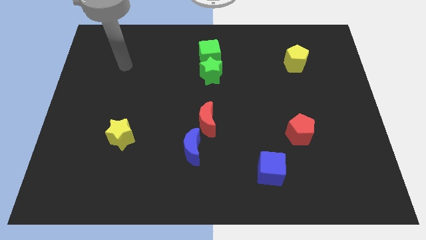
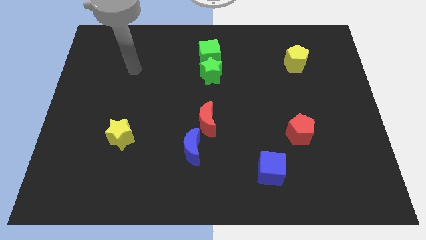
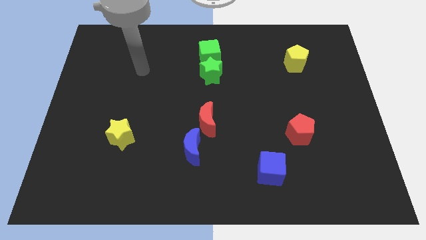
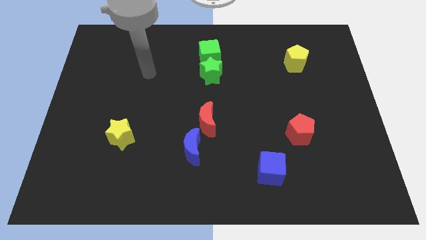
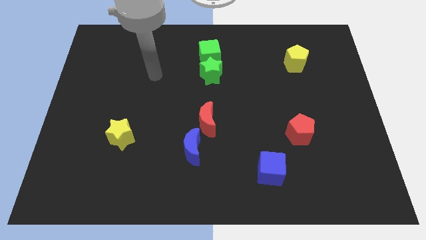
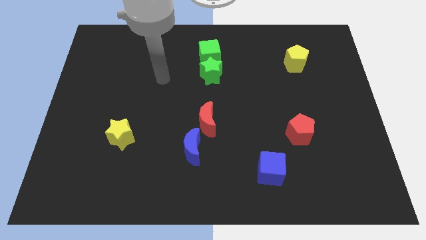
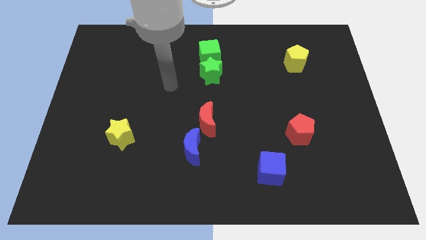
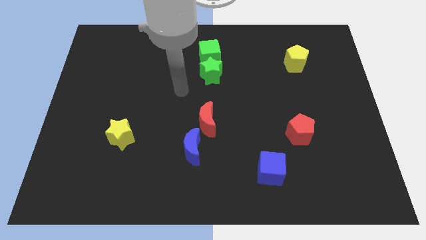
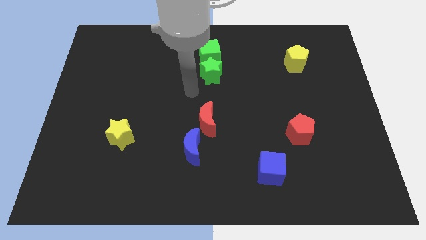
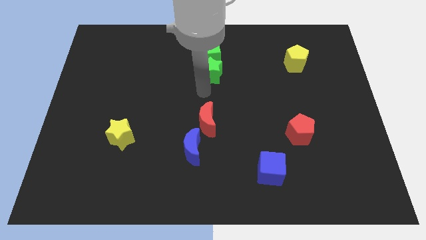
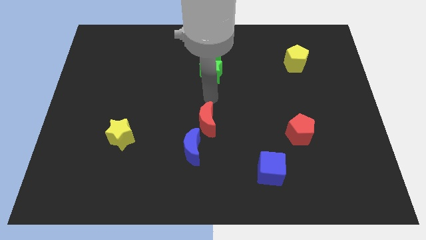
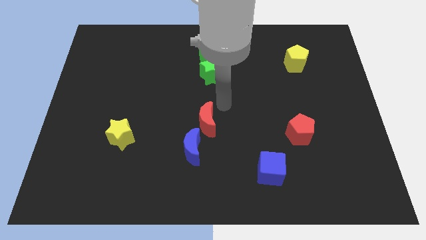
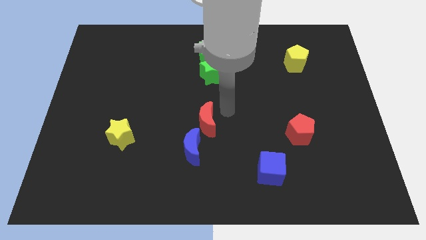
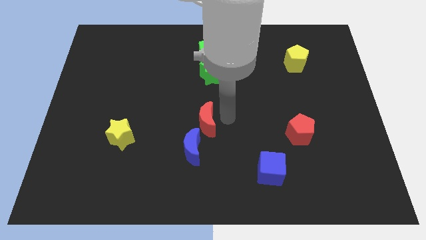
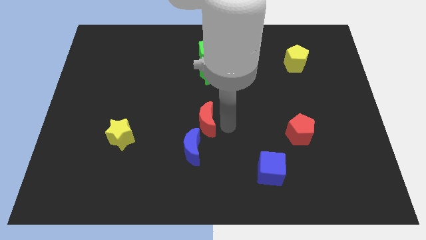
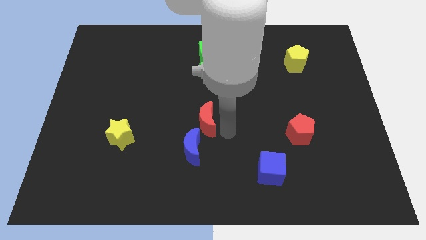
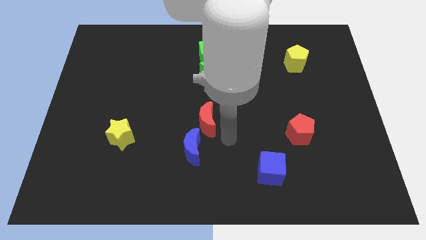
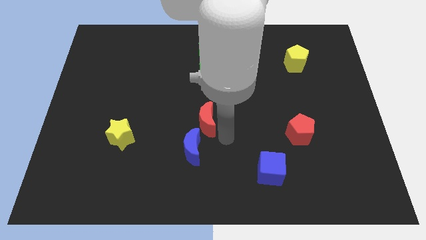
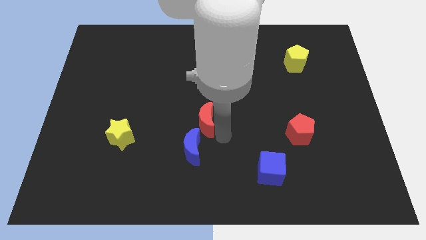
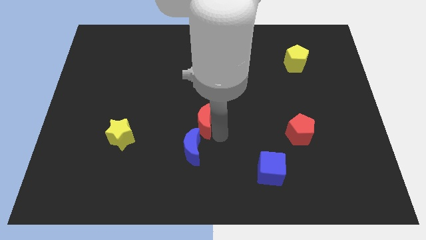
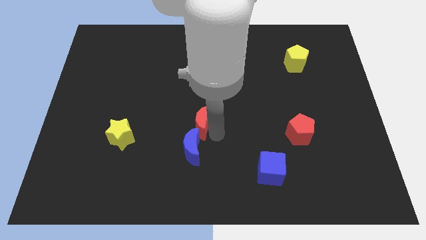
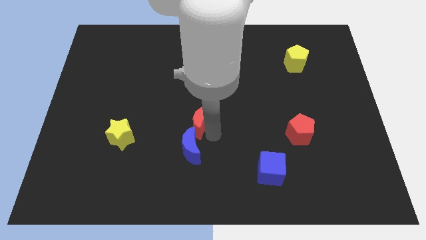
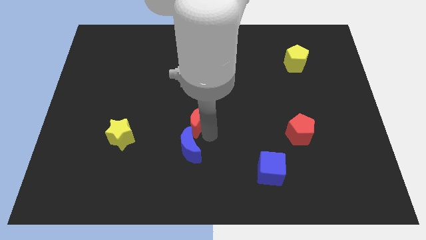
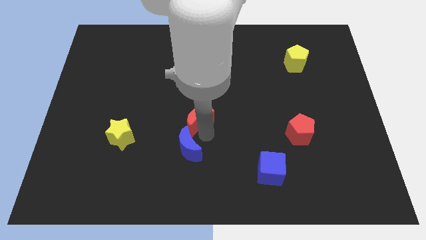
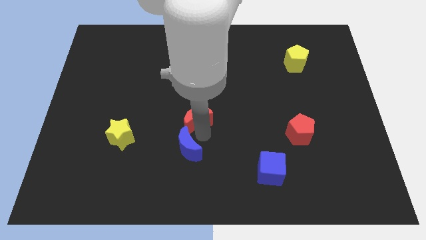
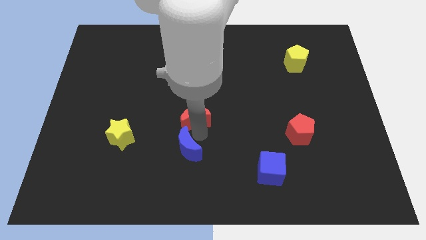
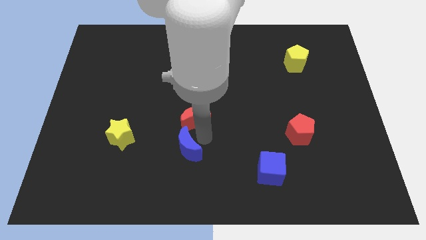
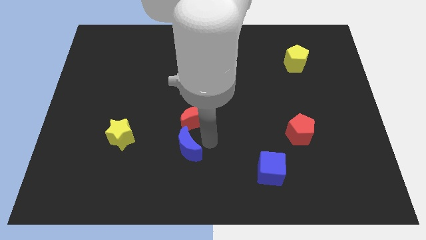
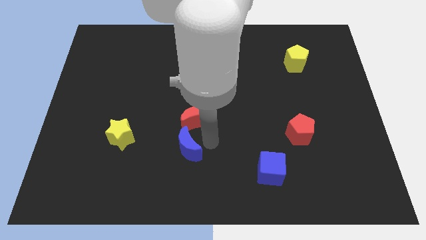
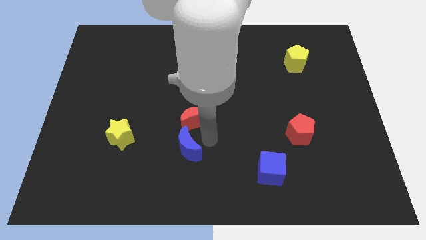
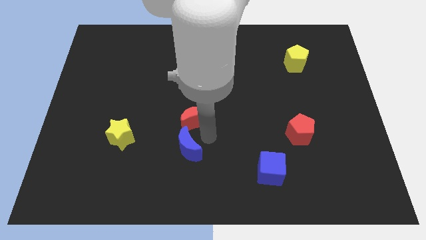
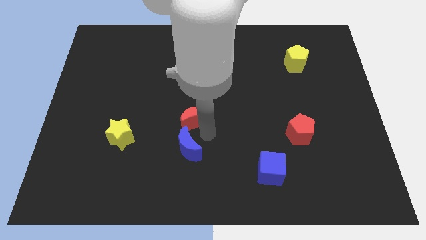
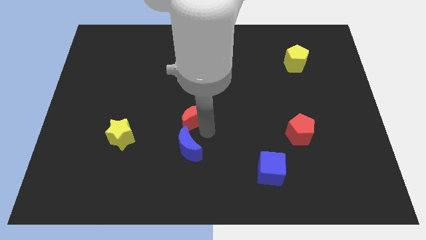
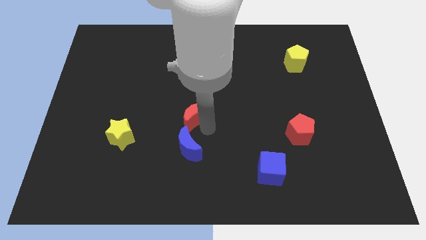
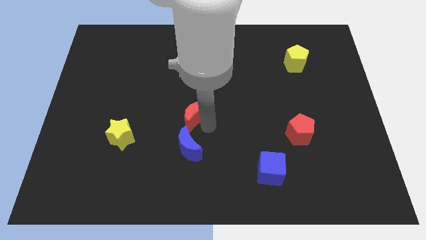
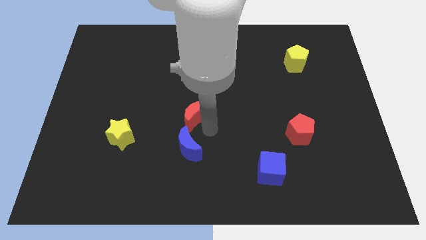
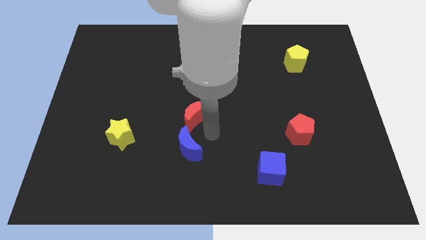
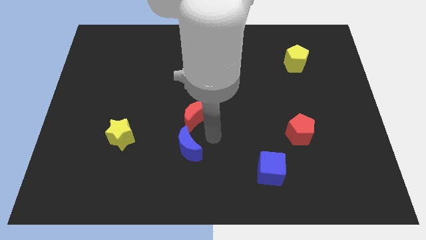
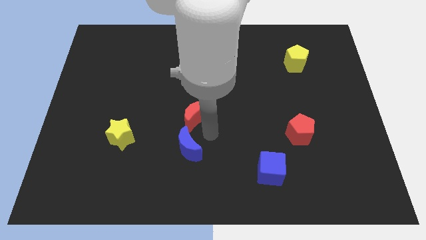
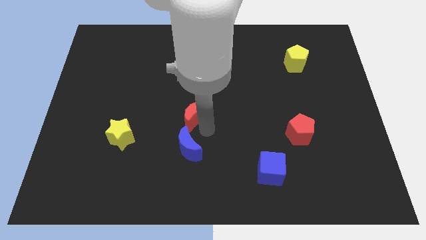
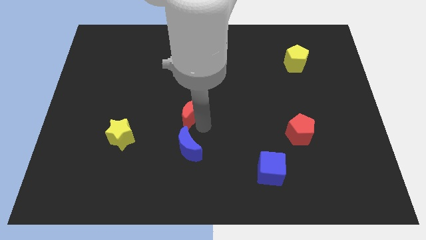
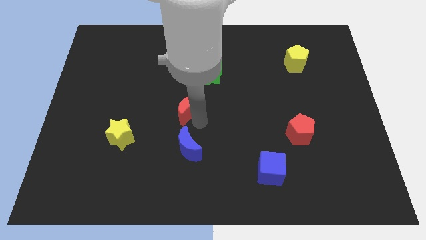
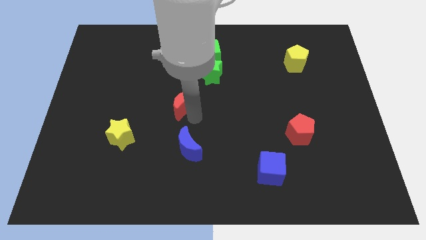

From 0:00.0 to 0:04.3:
move the red moon somewhat upwards and to the left

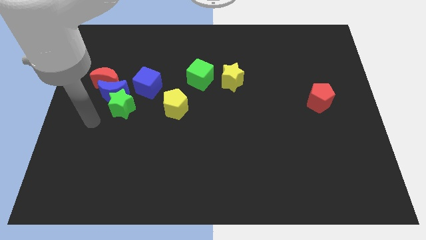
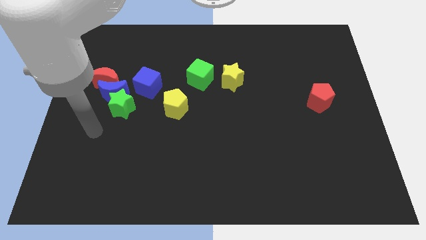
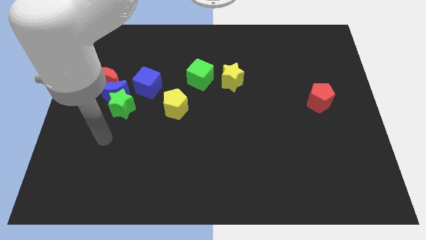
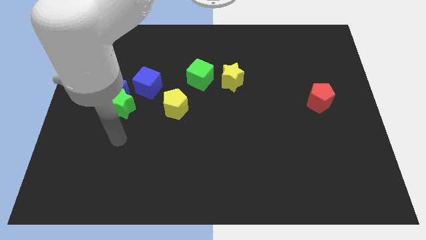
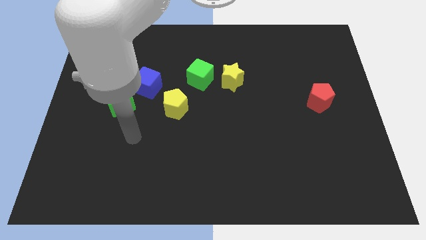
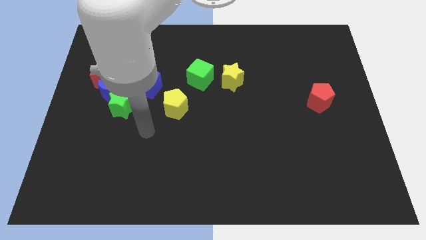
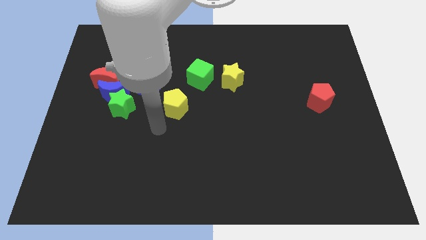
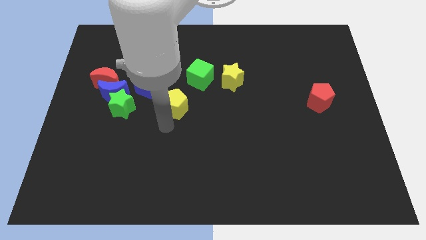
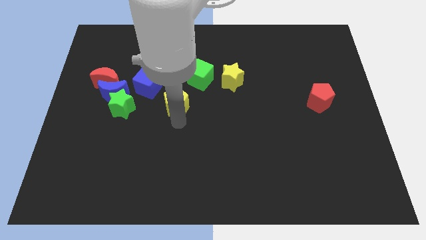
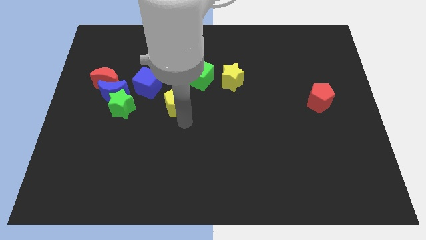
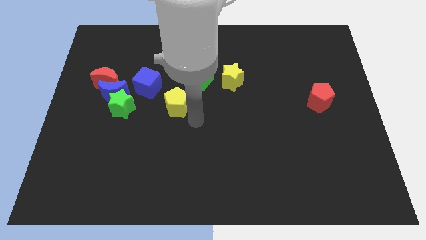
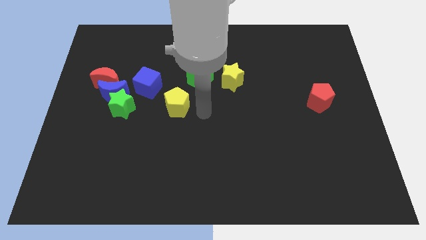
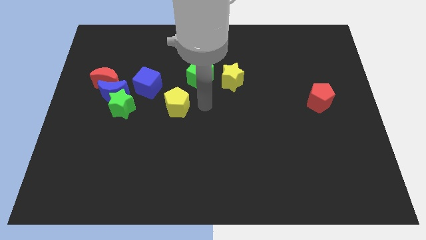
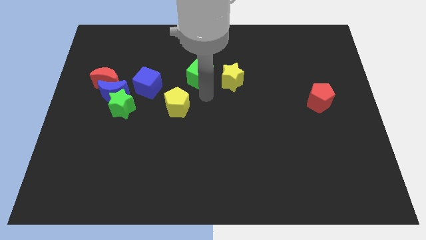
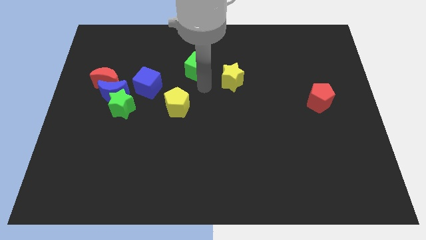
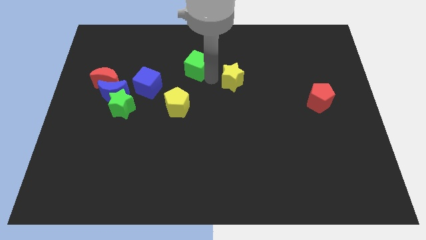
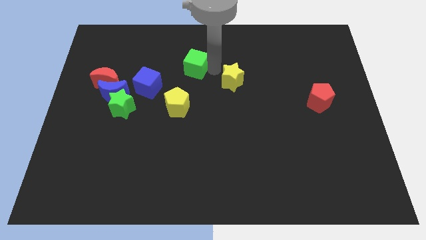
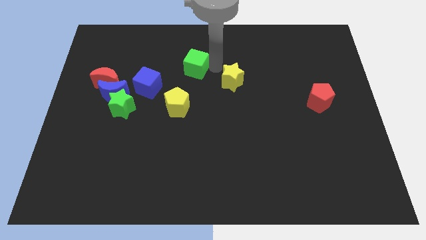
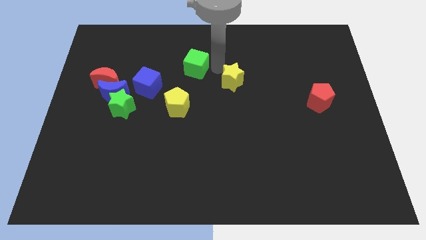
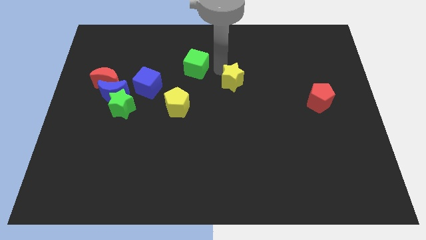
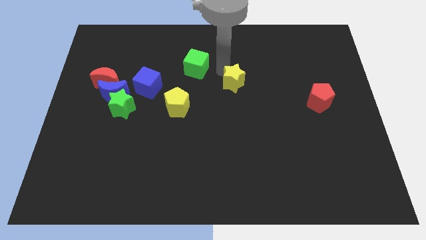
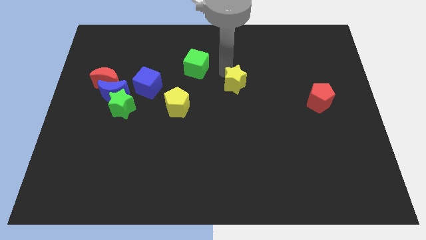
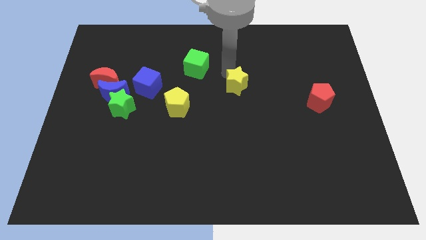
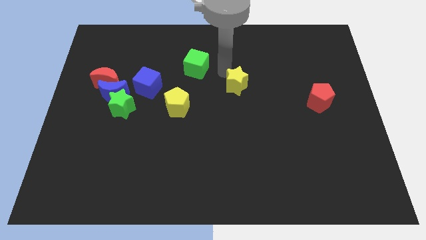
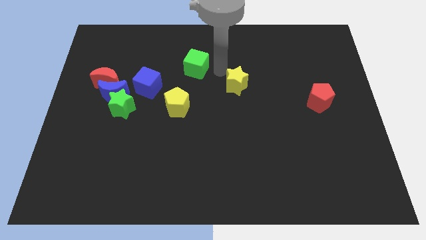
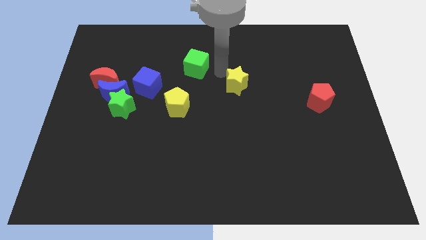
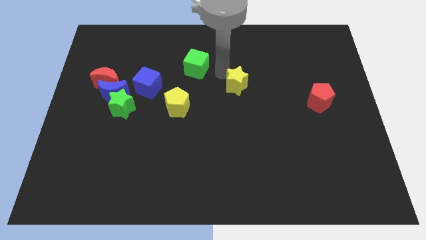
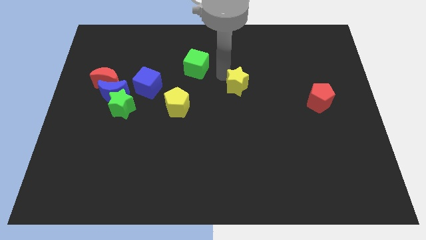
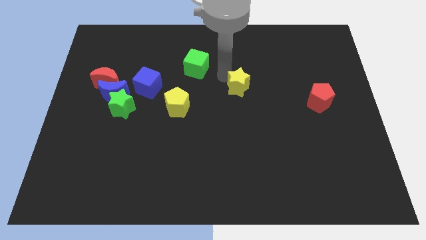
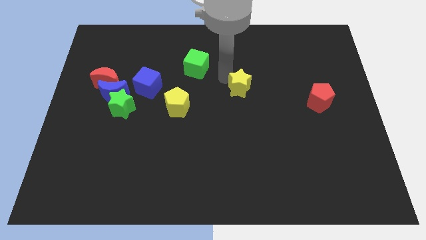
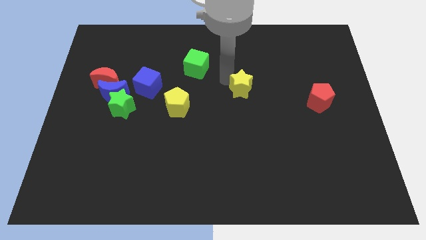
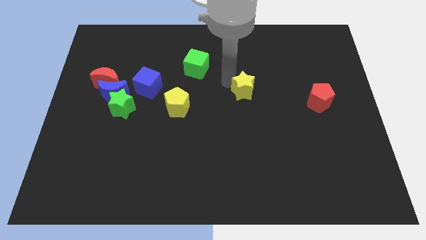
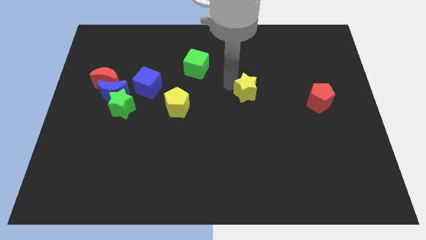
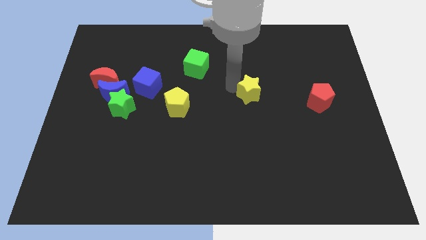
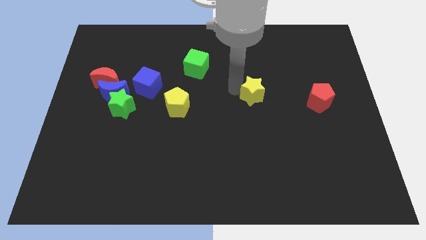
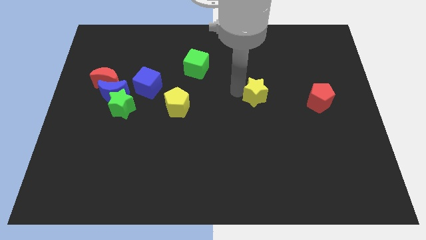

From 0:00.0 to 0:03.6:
push the yellow star diagonally down and right somewhat
